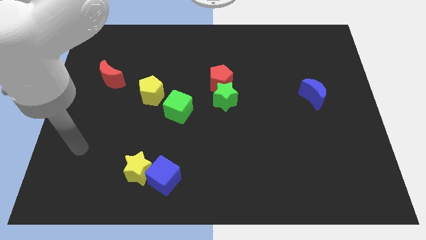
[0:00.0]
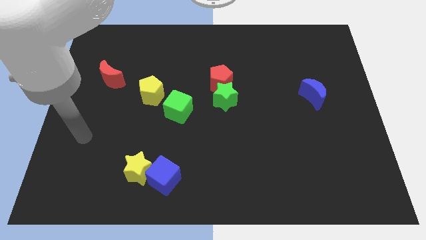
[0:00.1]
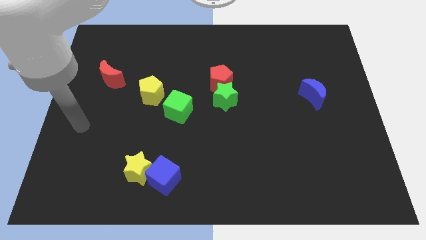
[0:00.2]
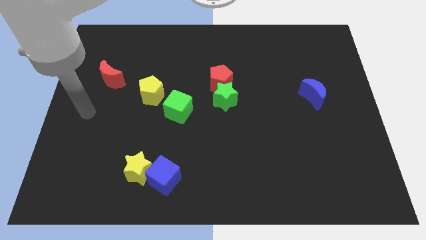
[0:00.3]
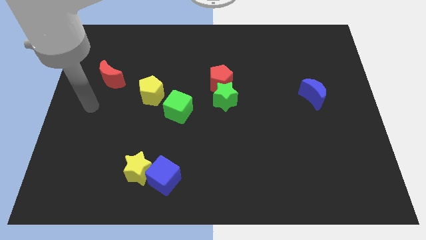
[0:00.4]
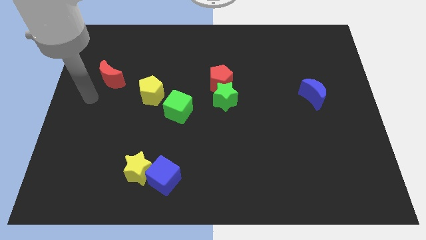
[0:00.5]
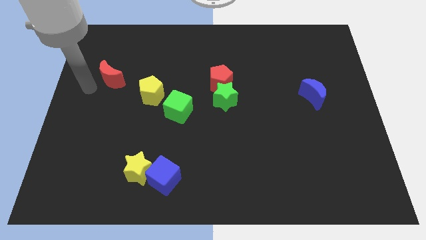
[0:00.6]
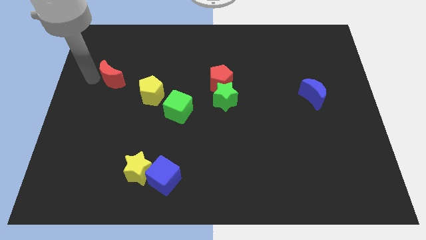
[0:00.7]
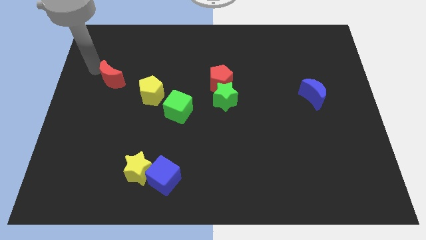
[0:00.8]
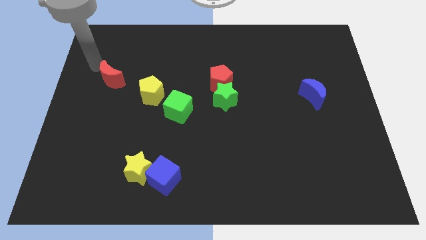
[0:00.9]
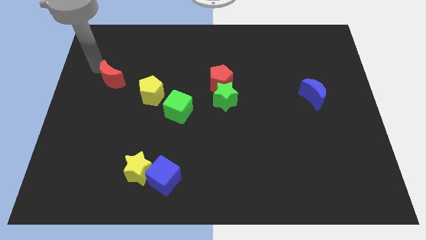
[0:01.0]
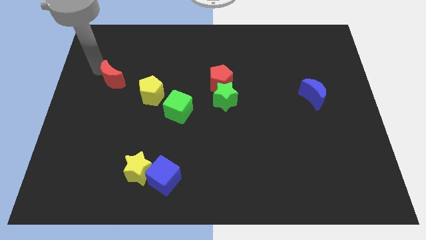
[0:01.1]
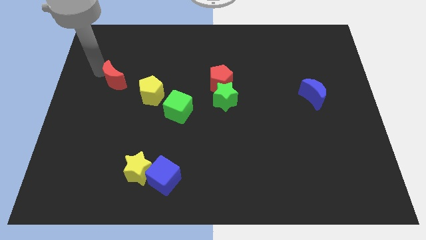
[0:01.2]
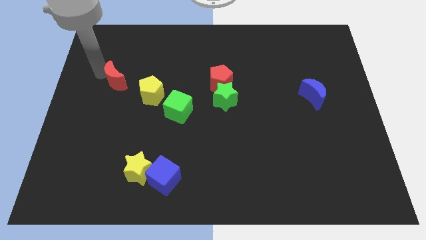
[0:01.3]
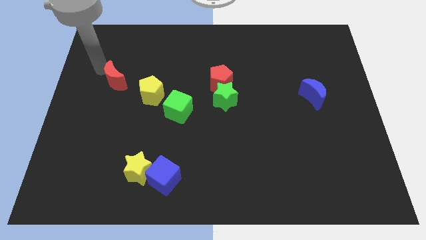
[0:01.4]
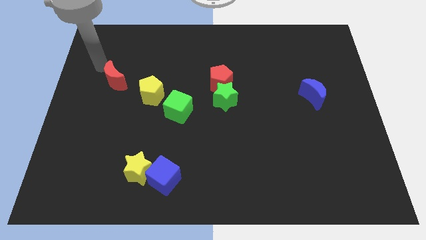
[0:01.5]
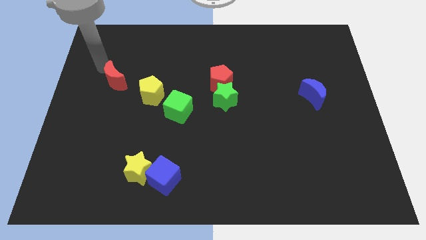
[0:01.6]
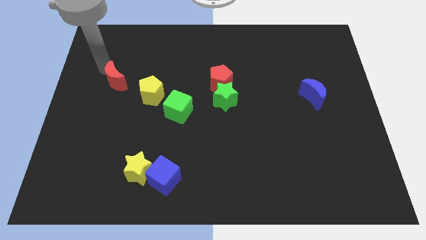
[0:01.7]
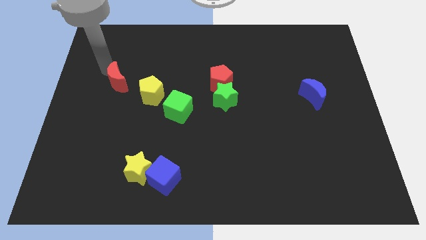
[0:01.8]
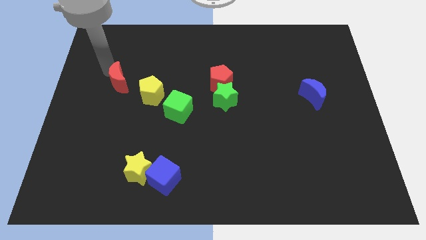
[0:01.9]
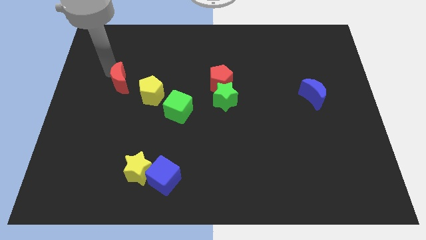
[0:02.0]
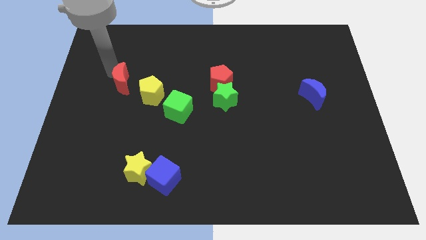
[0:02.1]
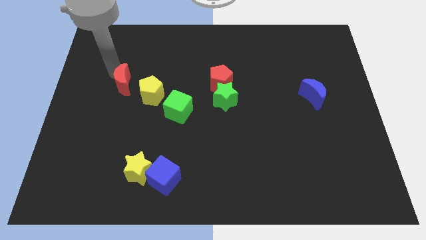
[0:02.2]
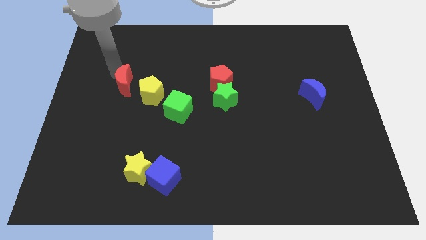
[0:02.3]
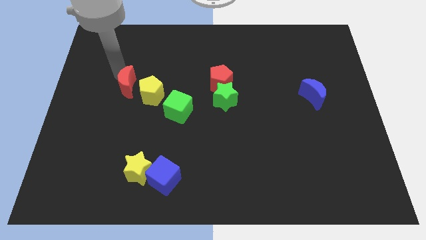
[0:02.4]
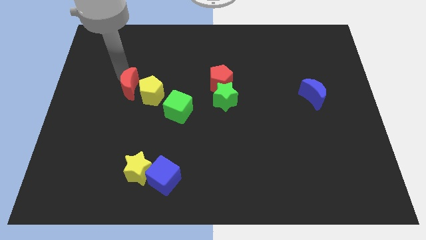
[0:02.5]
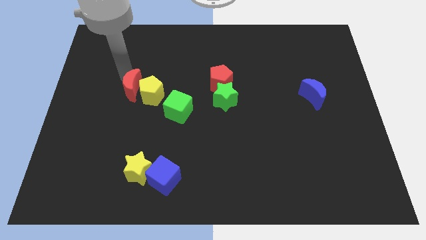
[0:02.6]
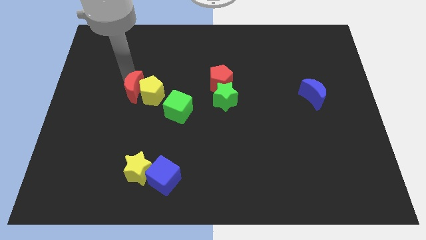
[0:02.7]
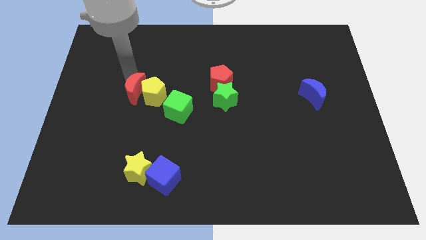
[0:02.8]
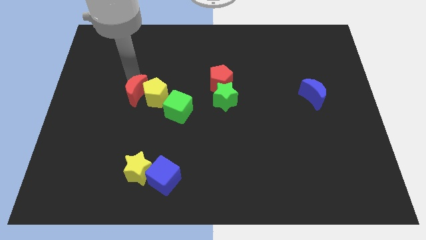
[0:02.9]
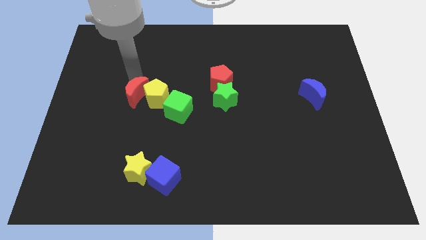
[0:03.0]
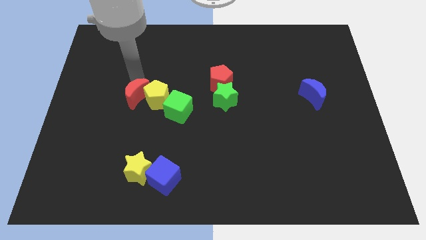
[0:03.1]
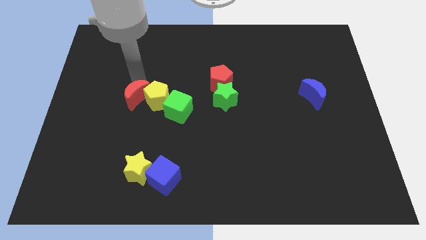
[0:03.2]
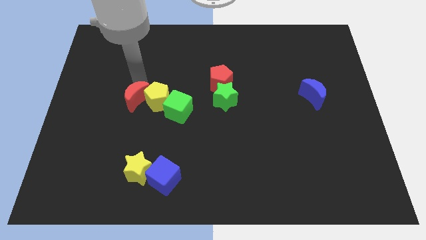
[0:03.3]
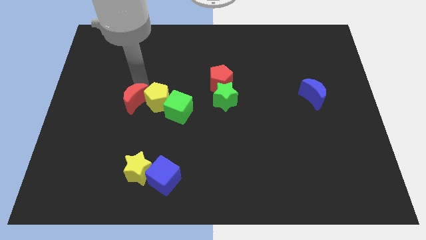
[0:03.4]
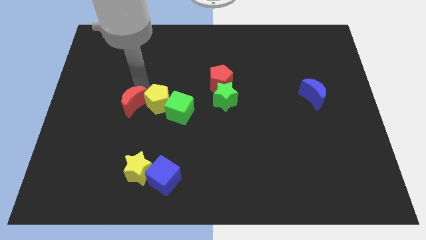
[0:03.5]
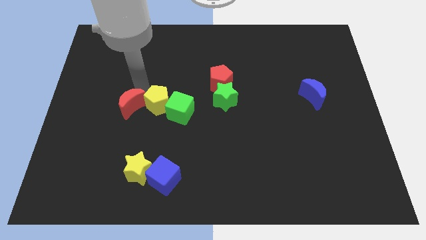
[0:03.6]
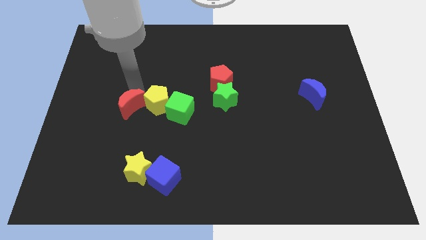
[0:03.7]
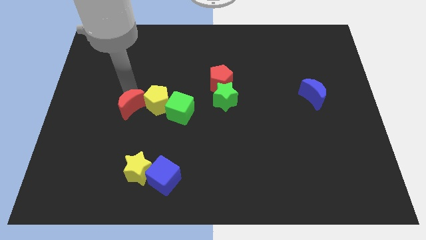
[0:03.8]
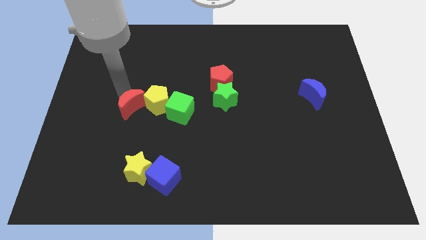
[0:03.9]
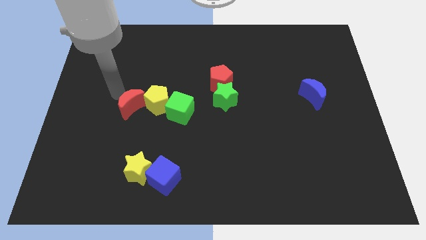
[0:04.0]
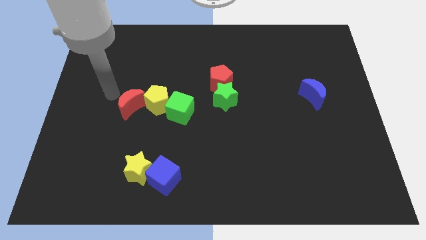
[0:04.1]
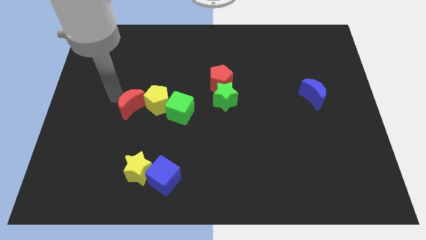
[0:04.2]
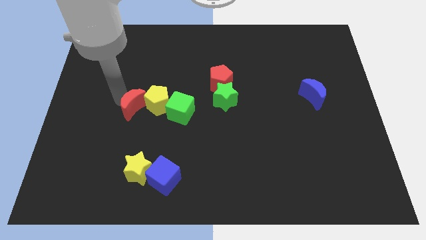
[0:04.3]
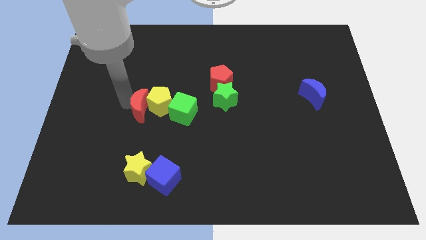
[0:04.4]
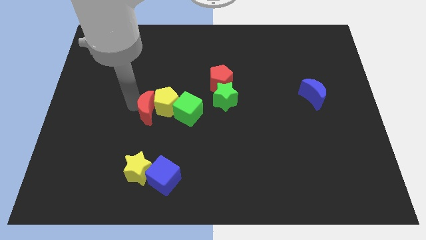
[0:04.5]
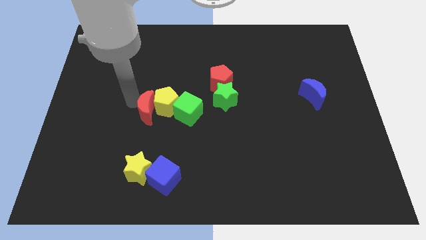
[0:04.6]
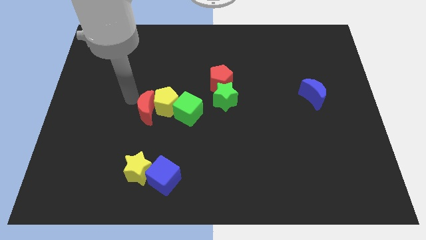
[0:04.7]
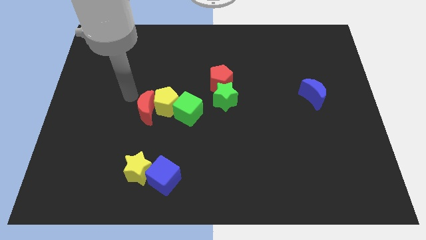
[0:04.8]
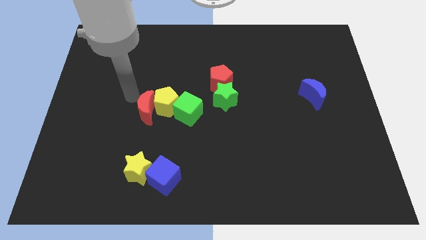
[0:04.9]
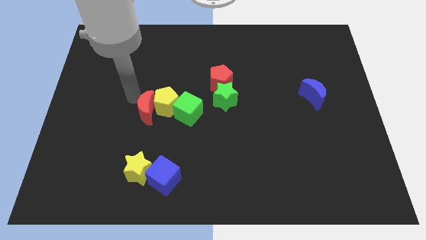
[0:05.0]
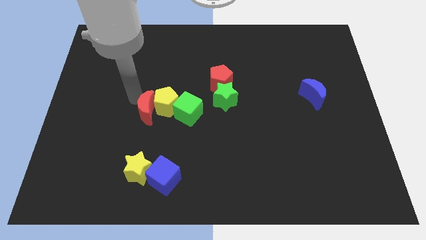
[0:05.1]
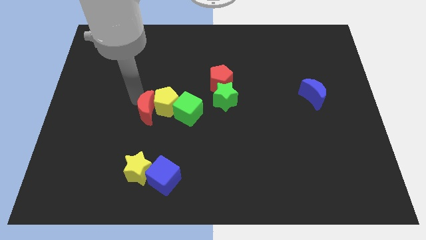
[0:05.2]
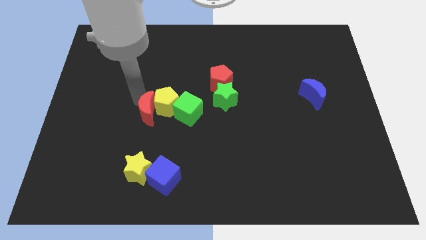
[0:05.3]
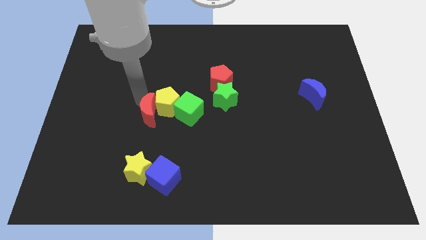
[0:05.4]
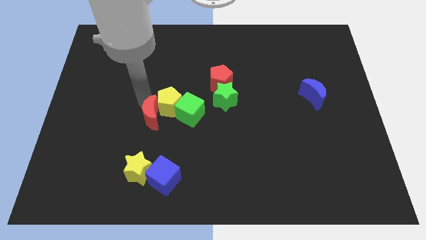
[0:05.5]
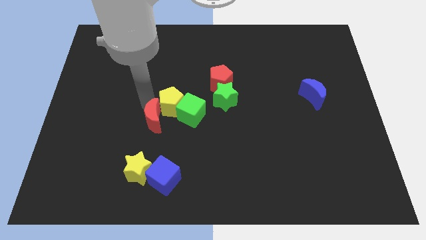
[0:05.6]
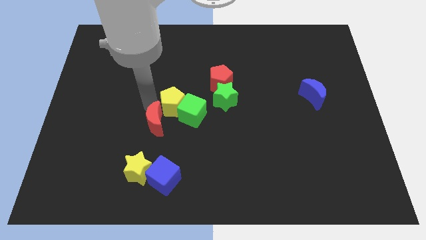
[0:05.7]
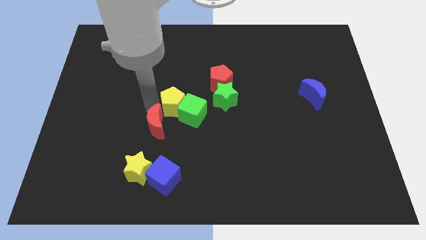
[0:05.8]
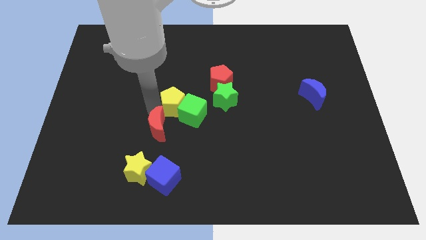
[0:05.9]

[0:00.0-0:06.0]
move the red moon downwards and then right

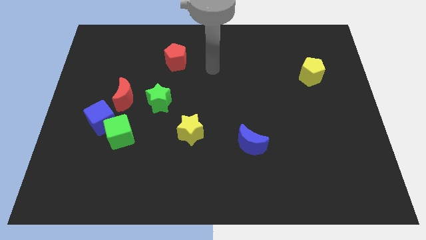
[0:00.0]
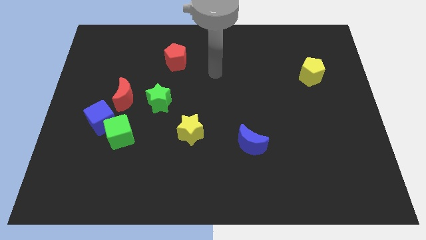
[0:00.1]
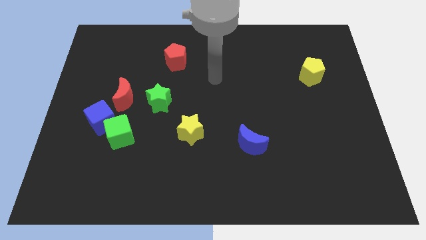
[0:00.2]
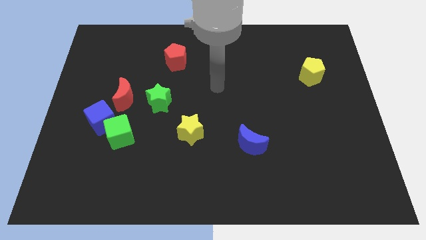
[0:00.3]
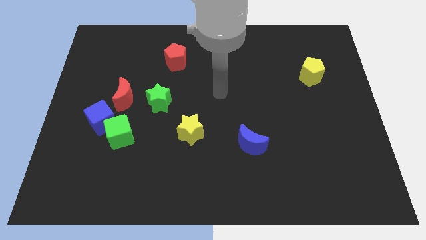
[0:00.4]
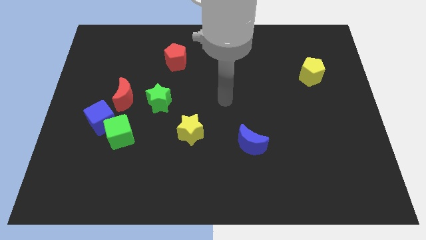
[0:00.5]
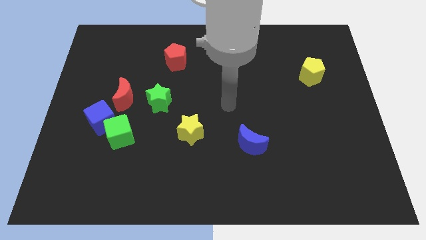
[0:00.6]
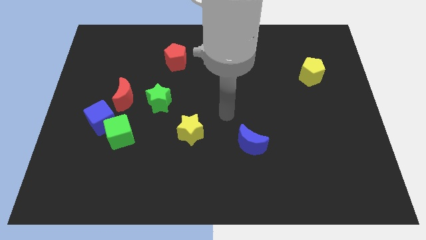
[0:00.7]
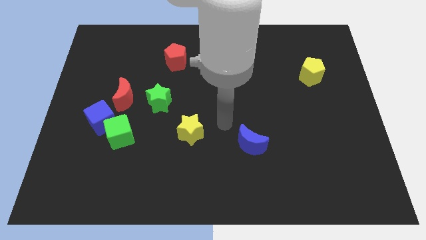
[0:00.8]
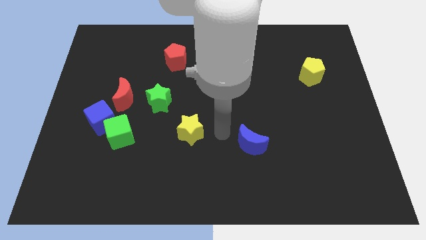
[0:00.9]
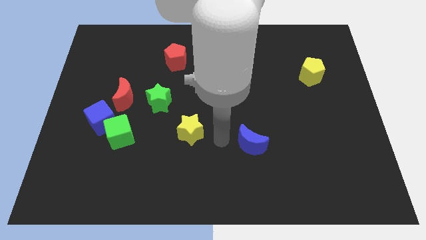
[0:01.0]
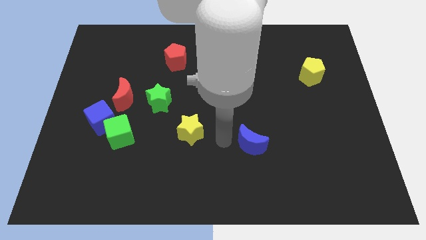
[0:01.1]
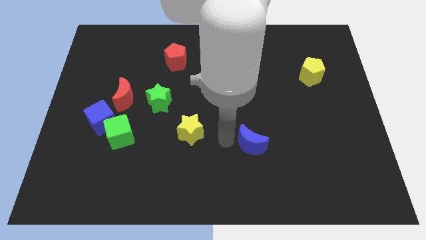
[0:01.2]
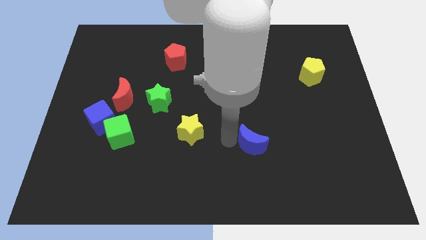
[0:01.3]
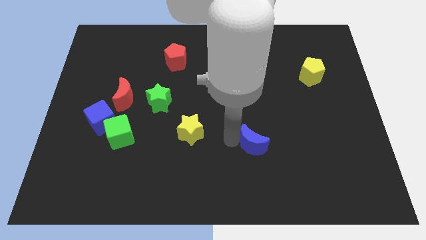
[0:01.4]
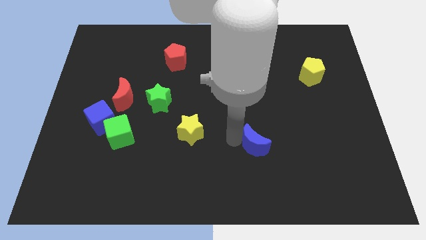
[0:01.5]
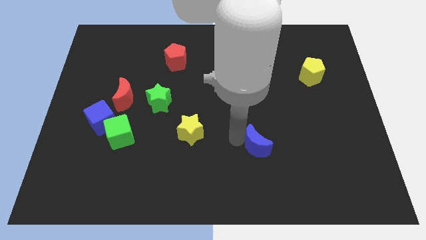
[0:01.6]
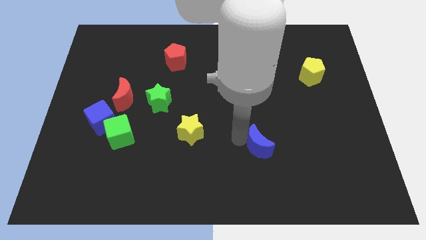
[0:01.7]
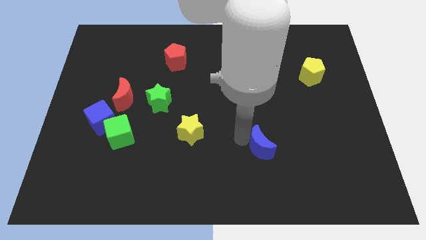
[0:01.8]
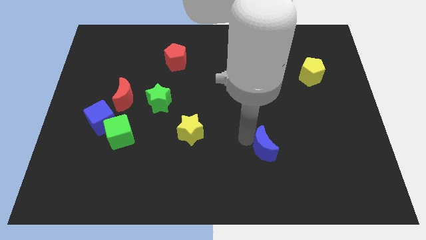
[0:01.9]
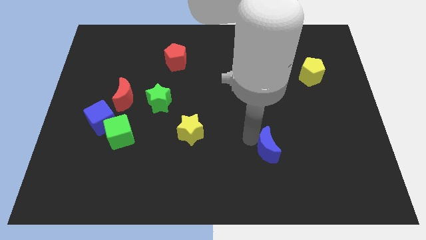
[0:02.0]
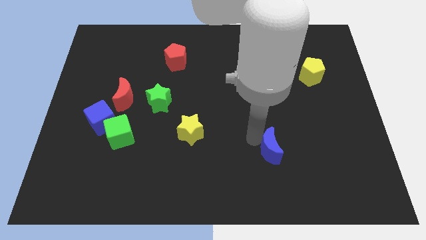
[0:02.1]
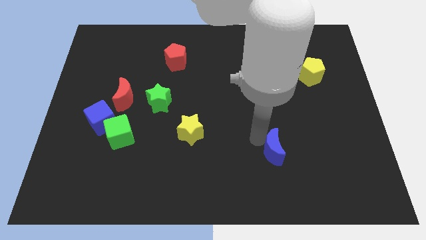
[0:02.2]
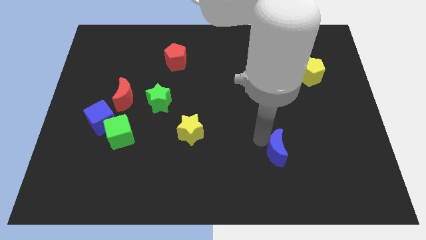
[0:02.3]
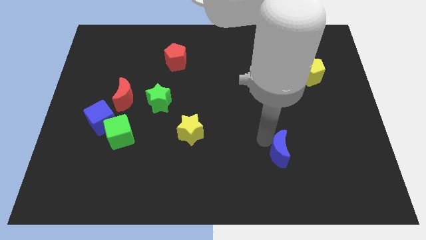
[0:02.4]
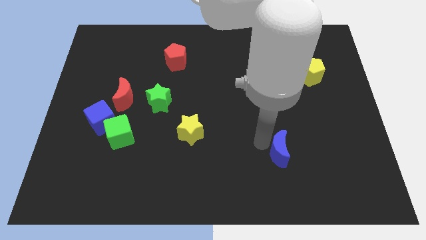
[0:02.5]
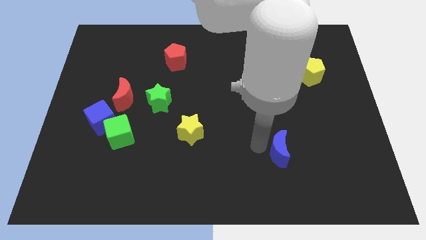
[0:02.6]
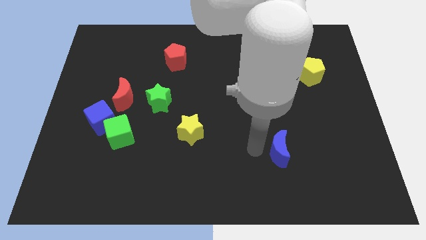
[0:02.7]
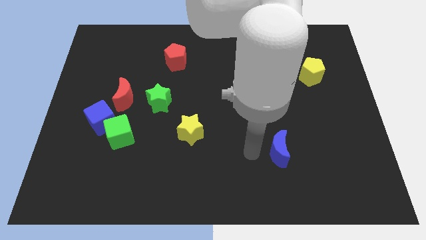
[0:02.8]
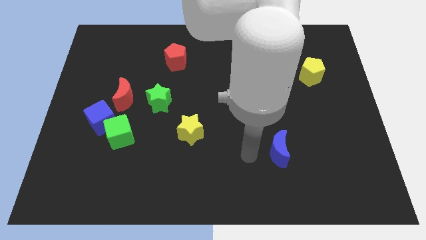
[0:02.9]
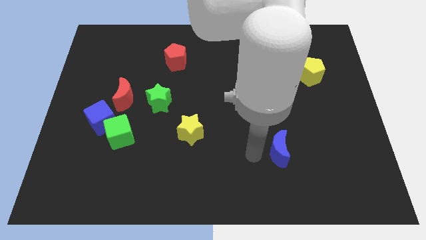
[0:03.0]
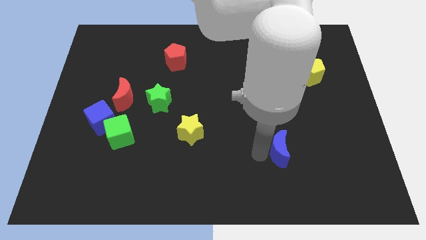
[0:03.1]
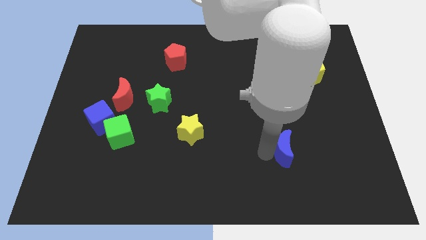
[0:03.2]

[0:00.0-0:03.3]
slightly push the blue moon to the right
